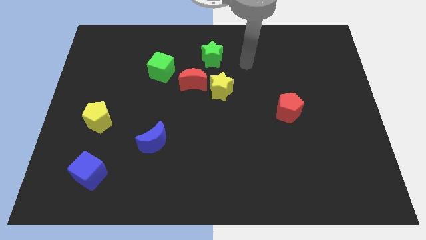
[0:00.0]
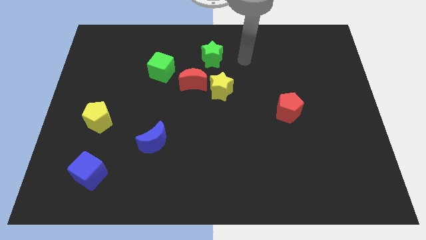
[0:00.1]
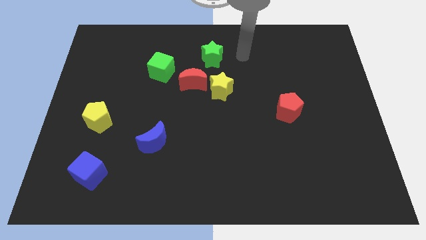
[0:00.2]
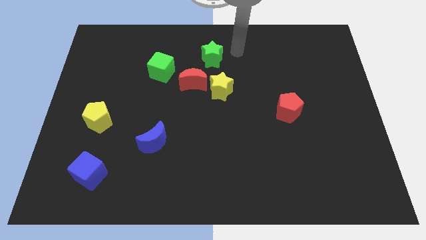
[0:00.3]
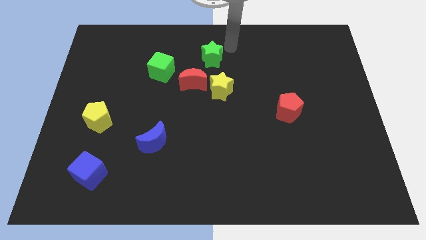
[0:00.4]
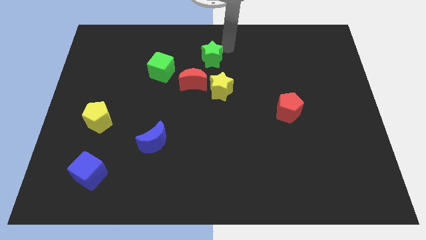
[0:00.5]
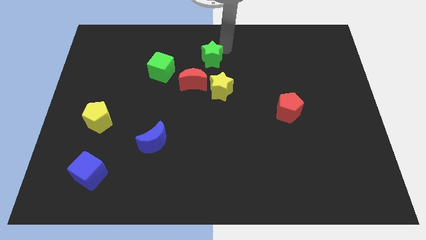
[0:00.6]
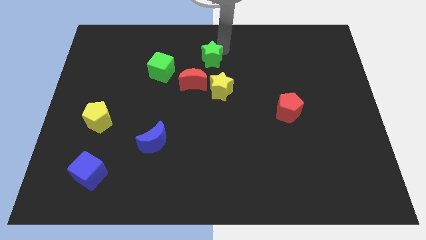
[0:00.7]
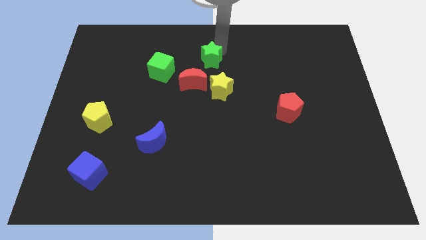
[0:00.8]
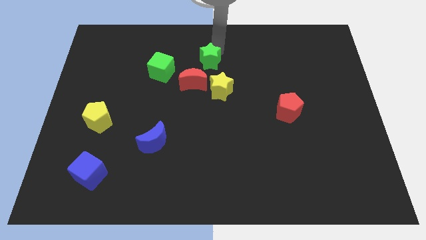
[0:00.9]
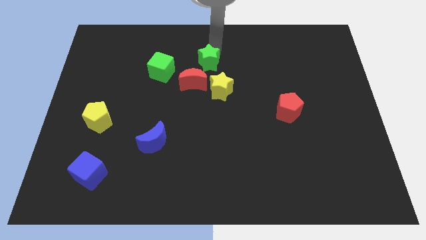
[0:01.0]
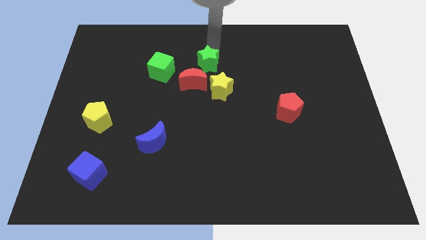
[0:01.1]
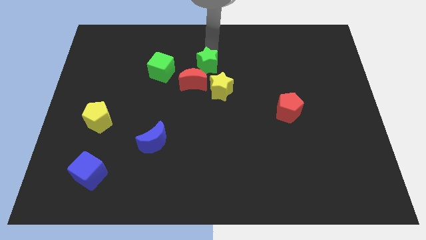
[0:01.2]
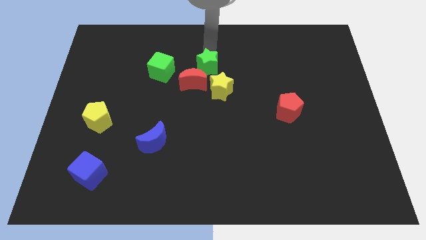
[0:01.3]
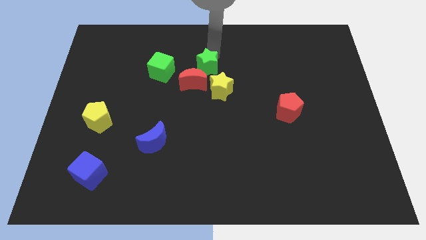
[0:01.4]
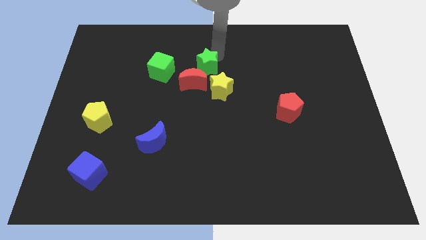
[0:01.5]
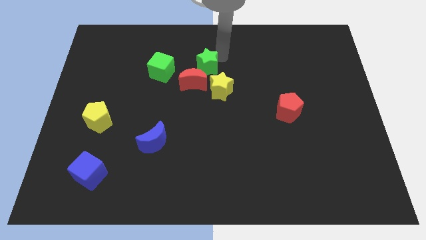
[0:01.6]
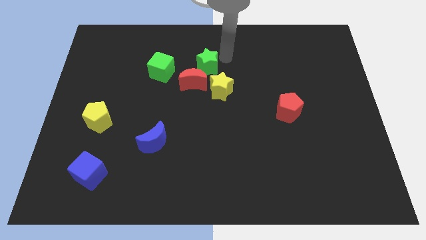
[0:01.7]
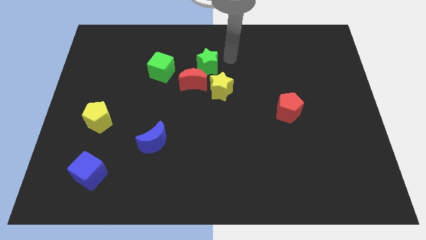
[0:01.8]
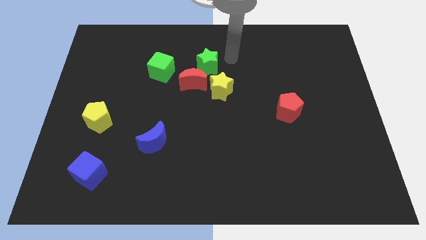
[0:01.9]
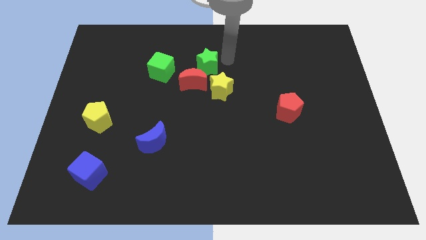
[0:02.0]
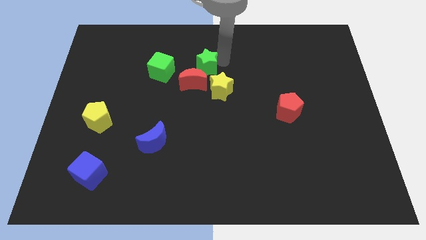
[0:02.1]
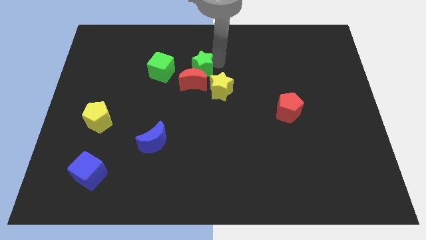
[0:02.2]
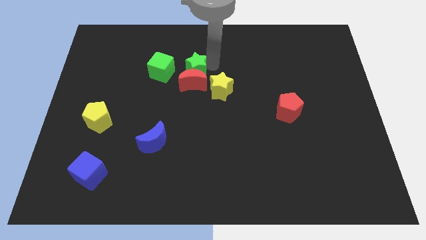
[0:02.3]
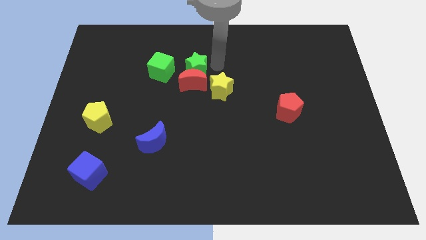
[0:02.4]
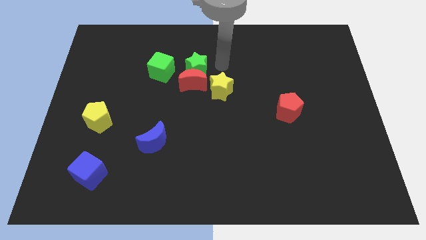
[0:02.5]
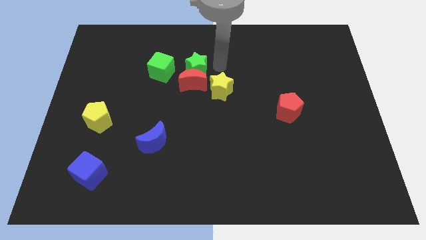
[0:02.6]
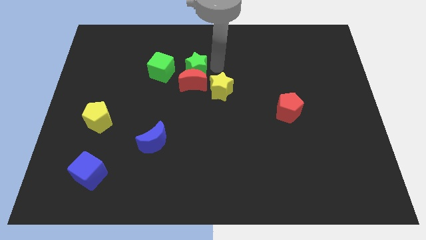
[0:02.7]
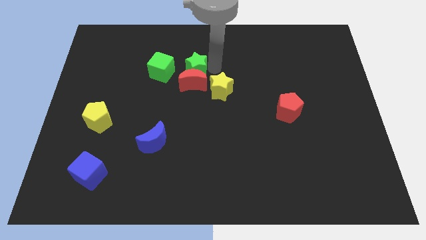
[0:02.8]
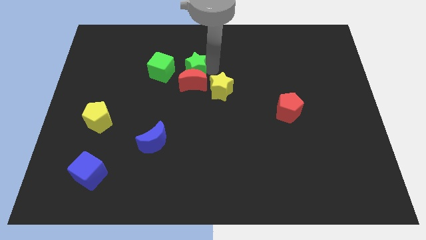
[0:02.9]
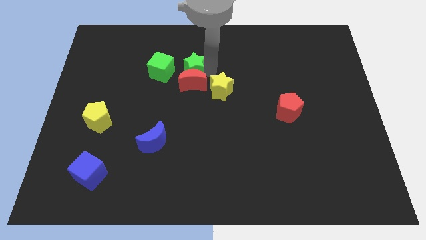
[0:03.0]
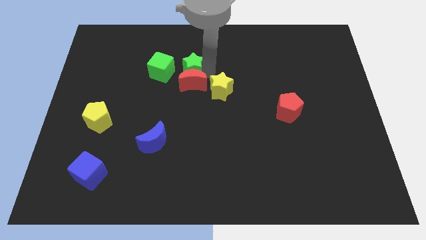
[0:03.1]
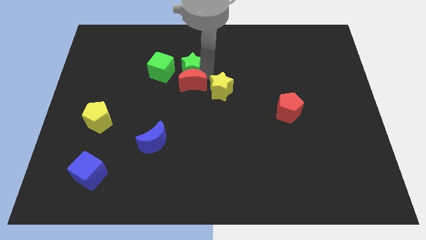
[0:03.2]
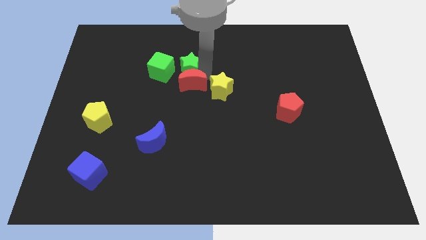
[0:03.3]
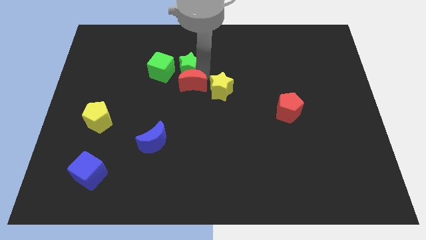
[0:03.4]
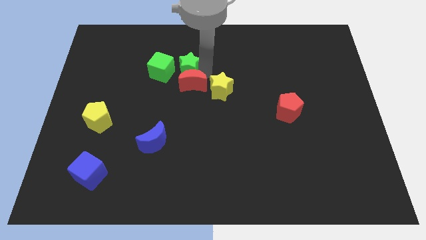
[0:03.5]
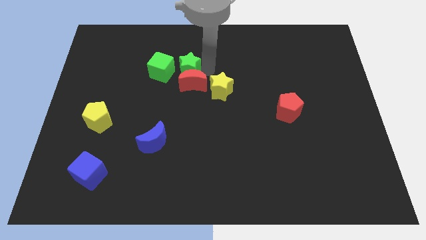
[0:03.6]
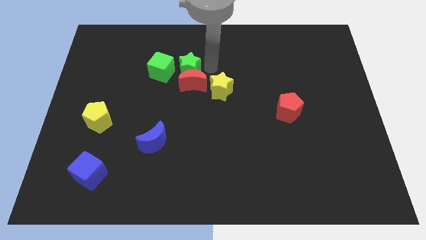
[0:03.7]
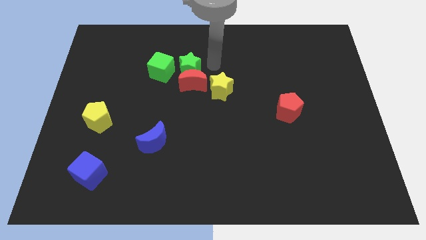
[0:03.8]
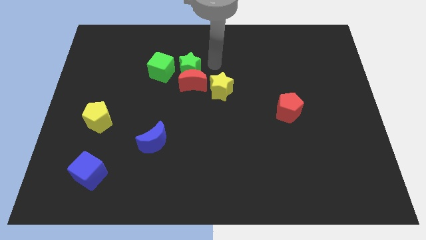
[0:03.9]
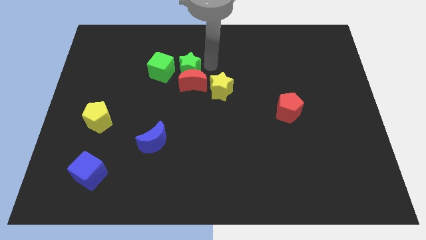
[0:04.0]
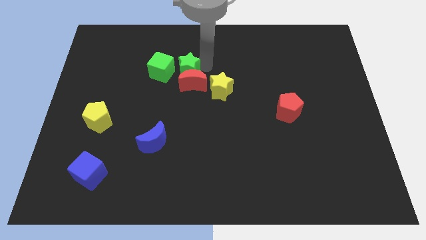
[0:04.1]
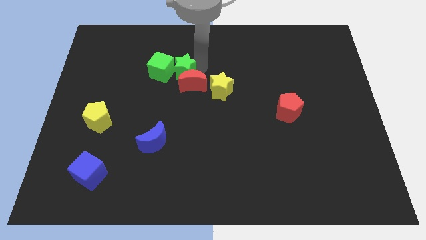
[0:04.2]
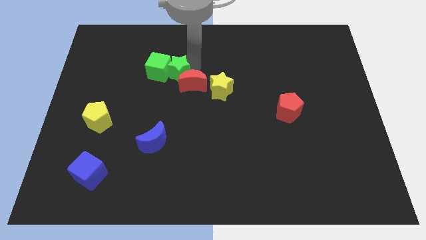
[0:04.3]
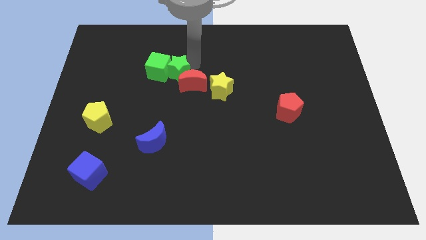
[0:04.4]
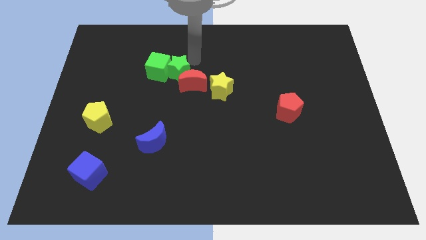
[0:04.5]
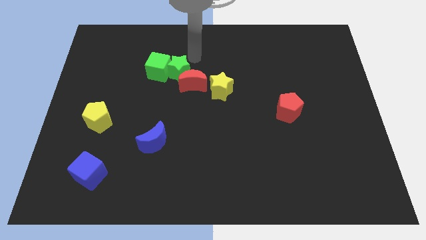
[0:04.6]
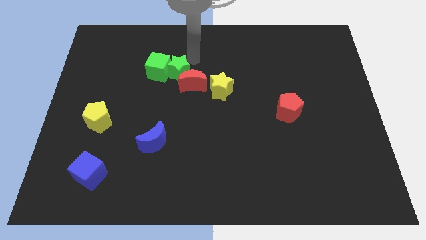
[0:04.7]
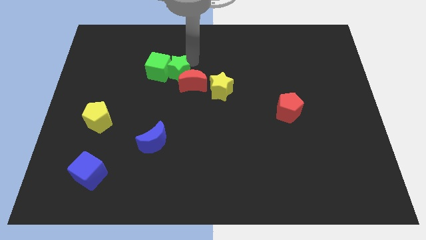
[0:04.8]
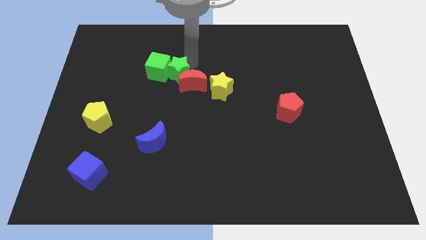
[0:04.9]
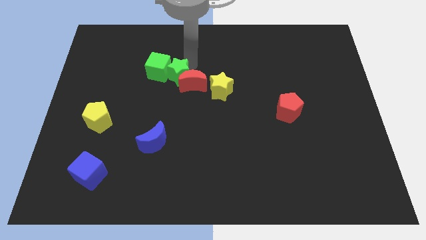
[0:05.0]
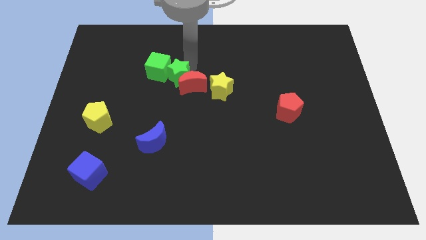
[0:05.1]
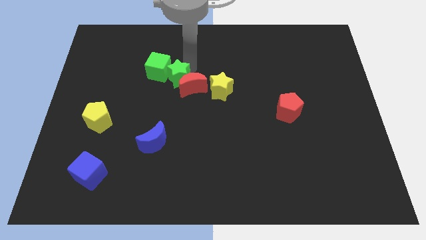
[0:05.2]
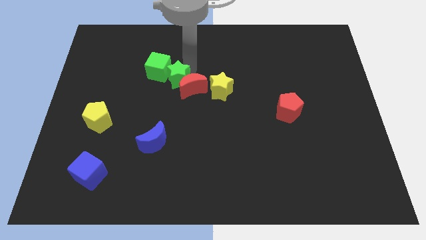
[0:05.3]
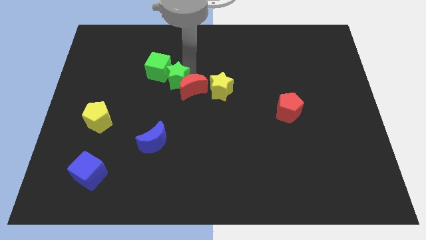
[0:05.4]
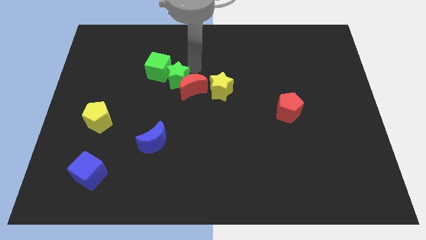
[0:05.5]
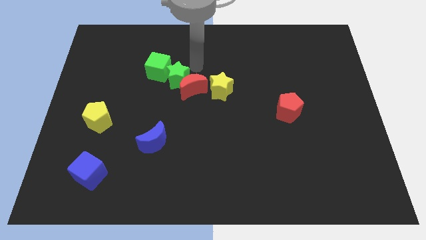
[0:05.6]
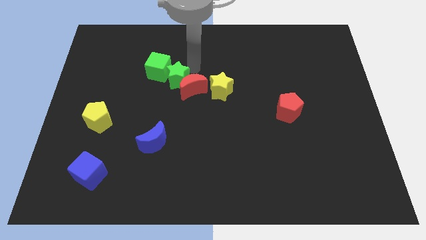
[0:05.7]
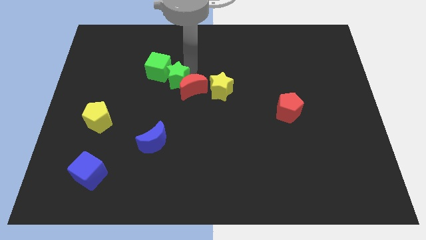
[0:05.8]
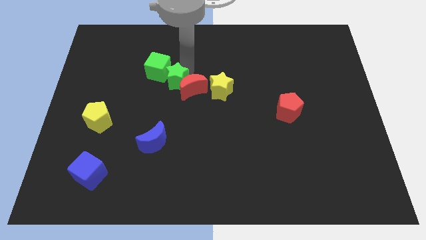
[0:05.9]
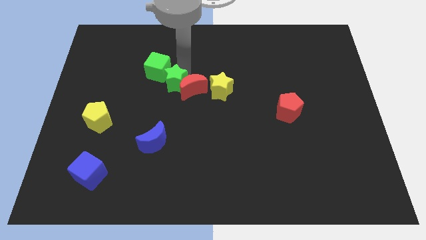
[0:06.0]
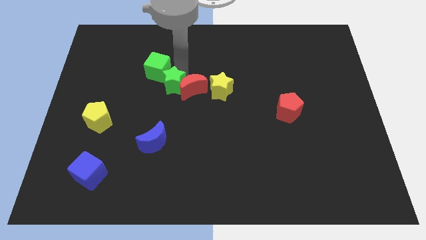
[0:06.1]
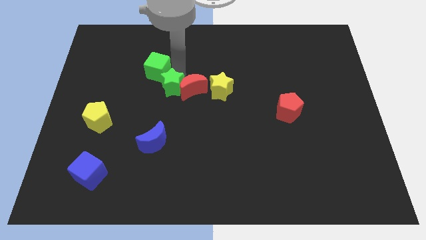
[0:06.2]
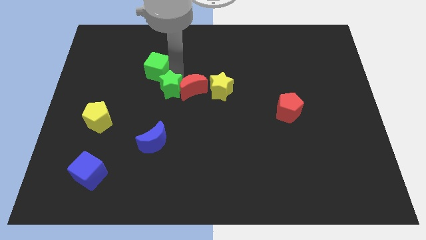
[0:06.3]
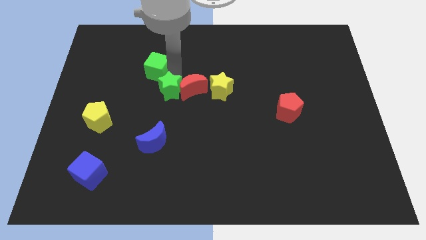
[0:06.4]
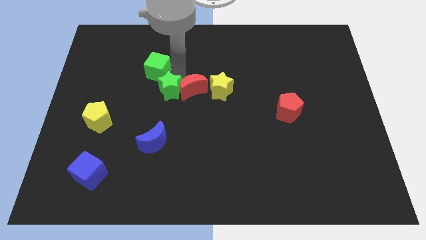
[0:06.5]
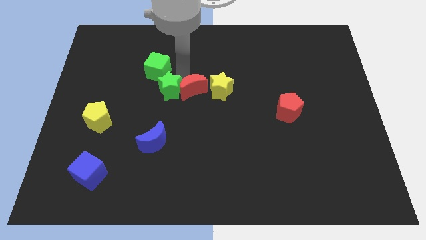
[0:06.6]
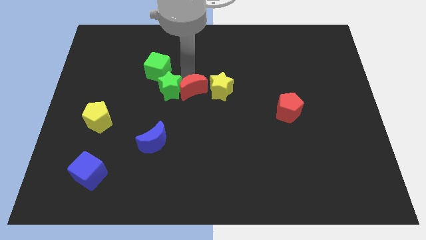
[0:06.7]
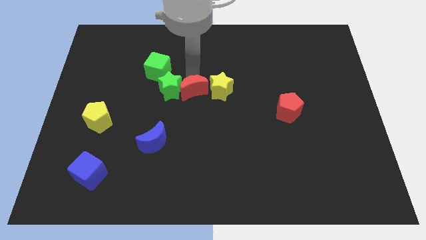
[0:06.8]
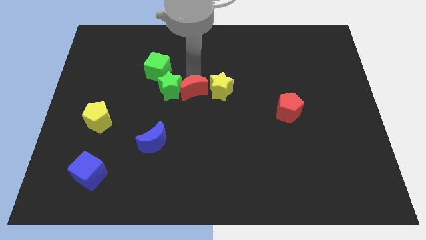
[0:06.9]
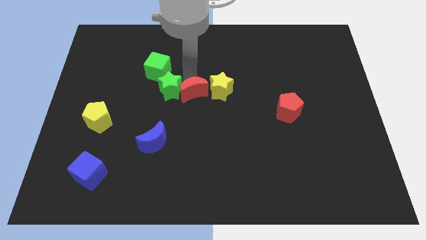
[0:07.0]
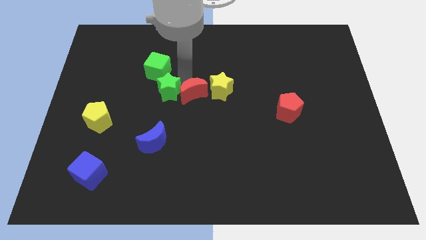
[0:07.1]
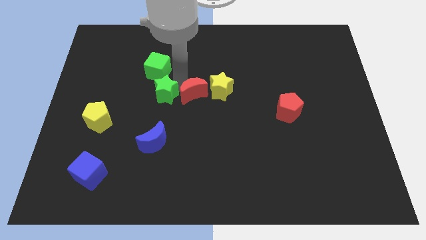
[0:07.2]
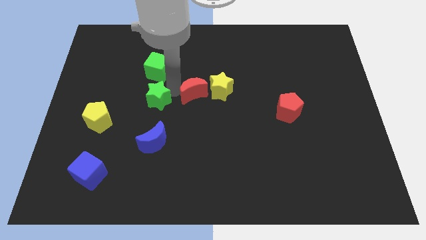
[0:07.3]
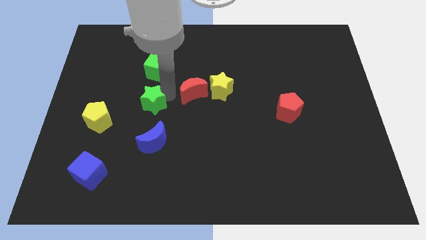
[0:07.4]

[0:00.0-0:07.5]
push the green star down and to the left diagonally

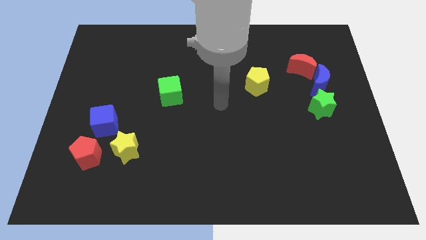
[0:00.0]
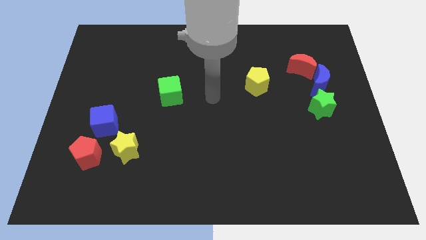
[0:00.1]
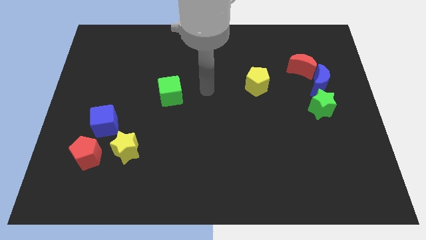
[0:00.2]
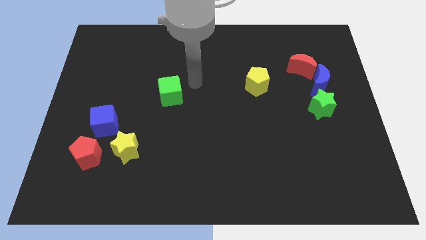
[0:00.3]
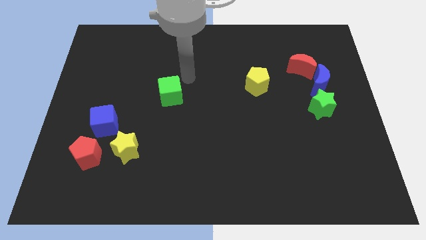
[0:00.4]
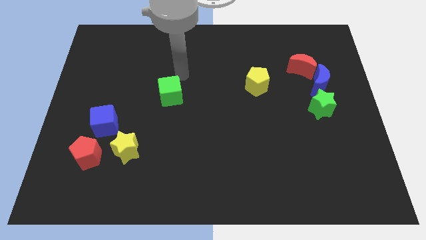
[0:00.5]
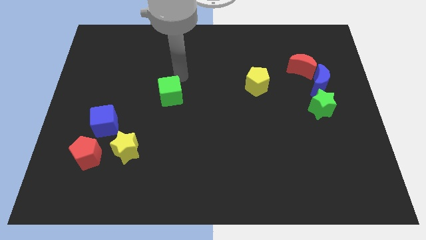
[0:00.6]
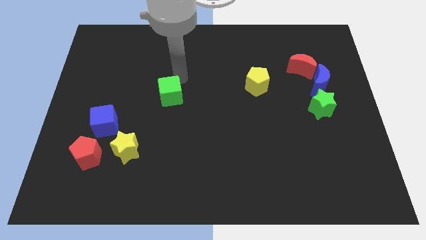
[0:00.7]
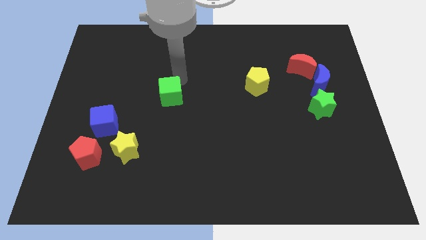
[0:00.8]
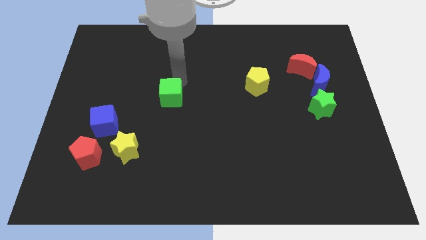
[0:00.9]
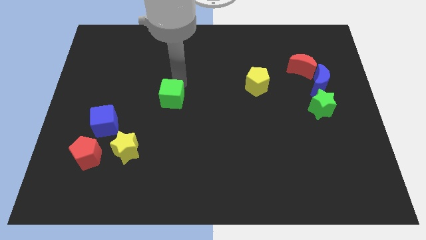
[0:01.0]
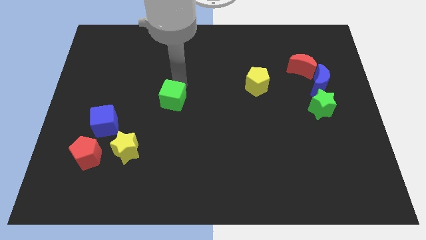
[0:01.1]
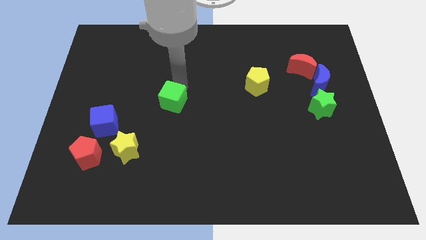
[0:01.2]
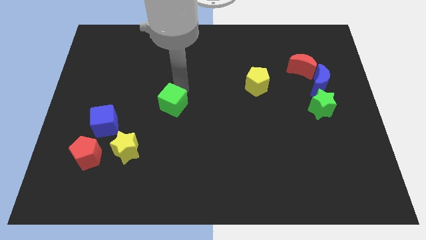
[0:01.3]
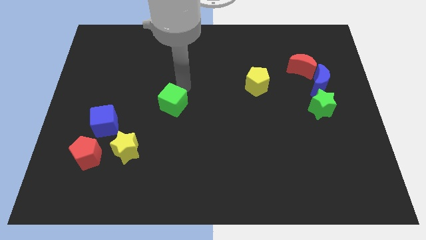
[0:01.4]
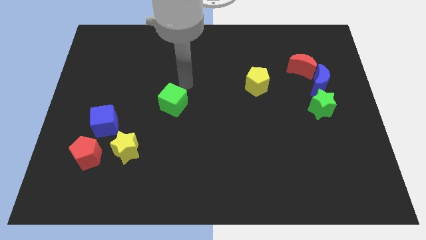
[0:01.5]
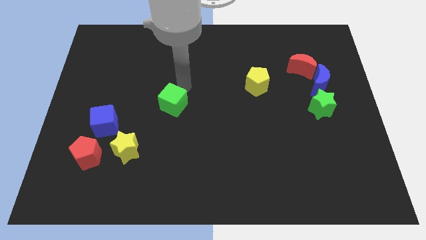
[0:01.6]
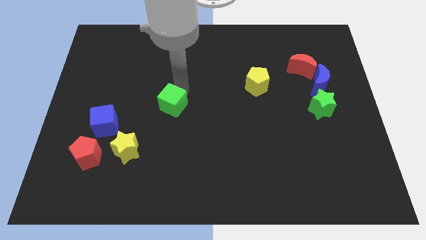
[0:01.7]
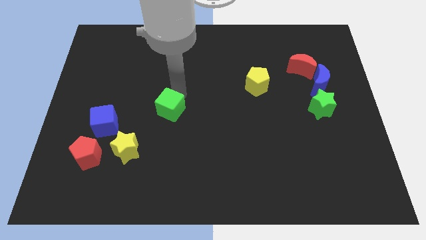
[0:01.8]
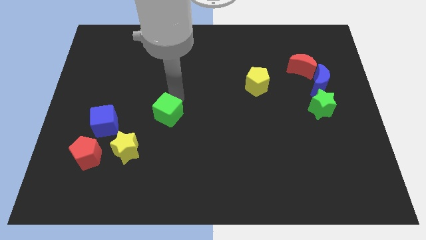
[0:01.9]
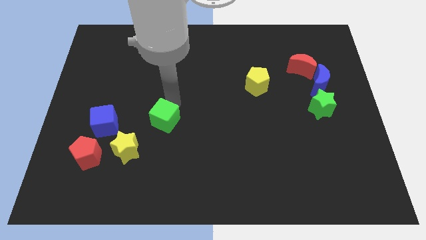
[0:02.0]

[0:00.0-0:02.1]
slightly push the green cube down
